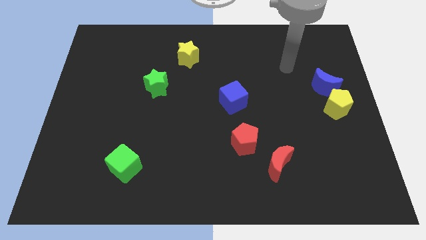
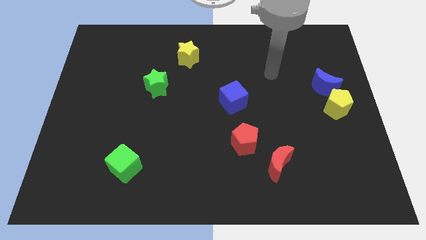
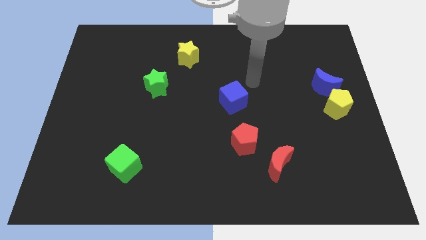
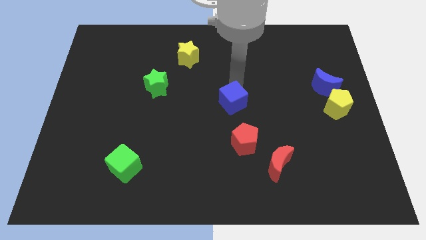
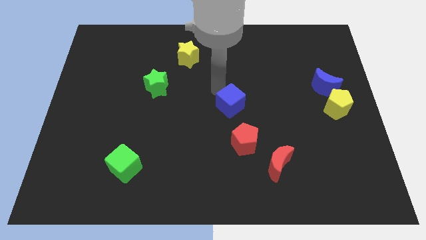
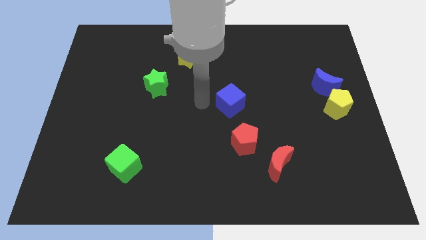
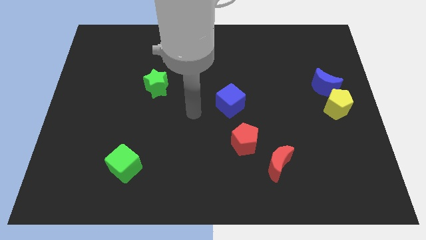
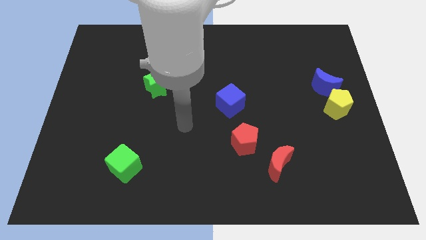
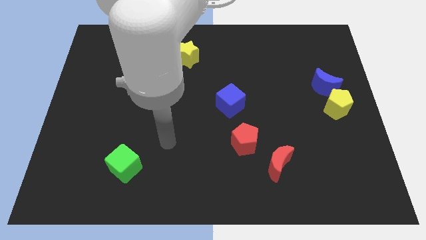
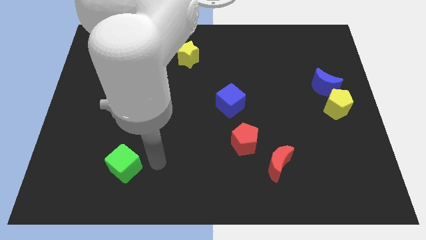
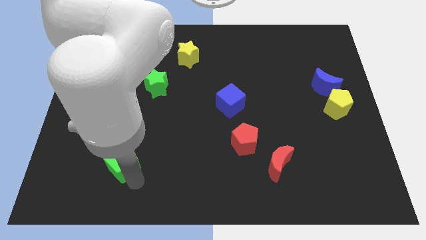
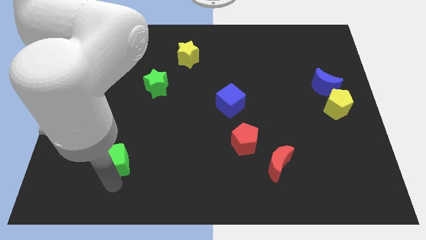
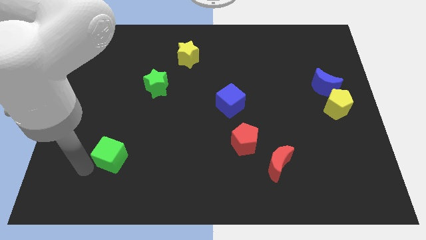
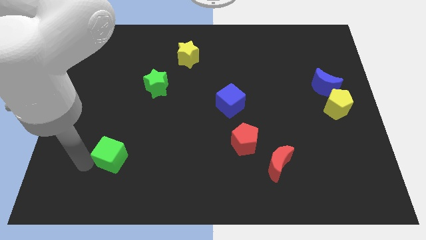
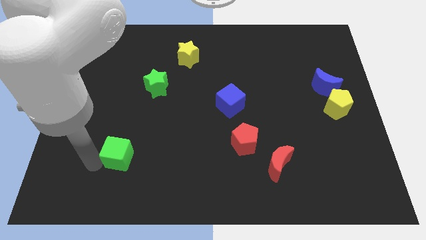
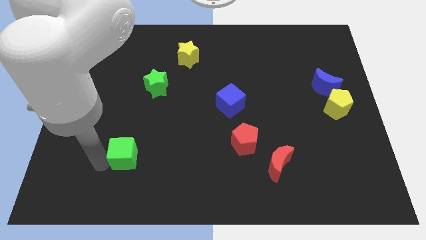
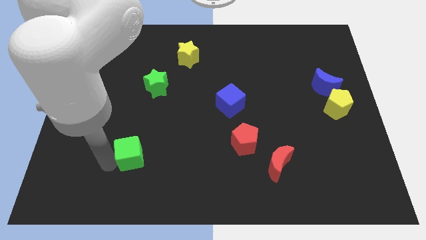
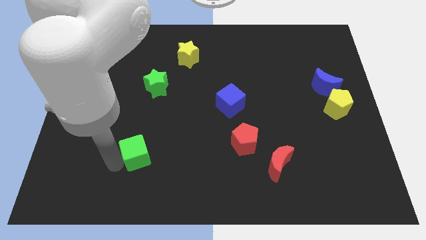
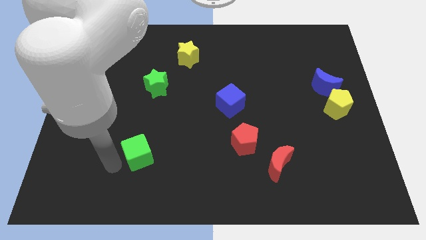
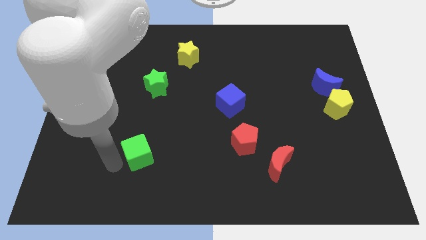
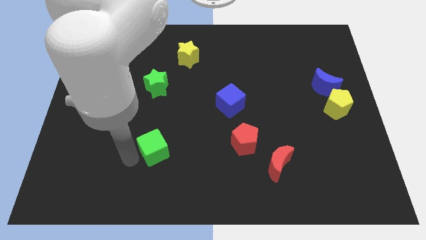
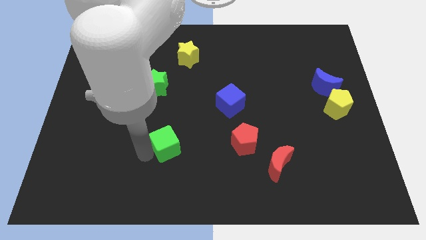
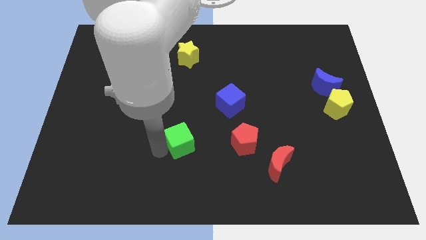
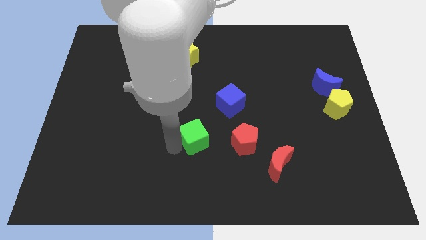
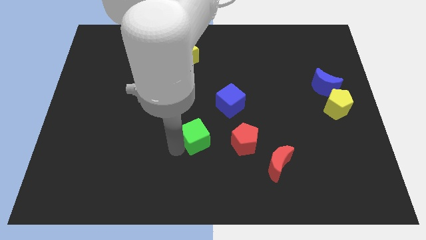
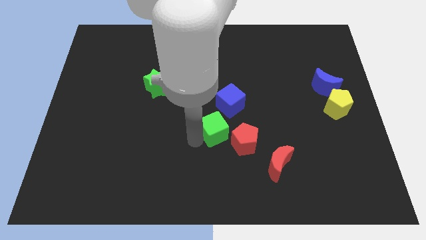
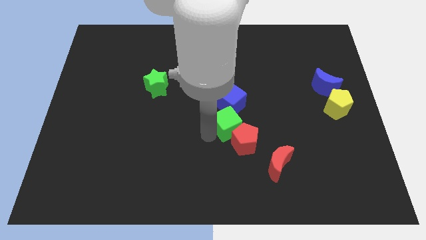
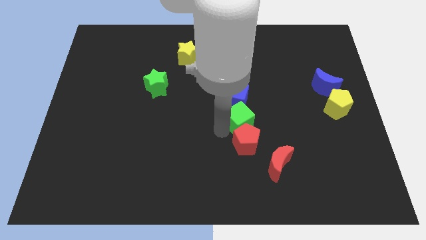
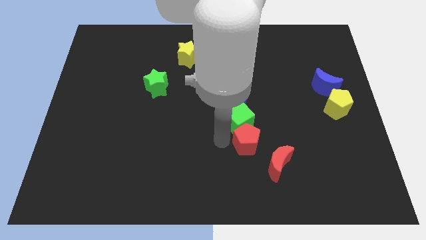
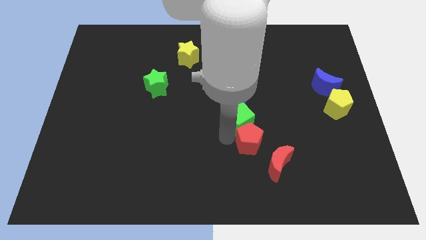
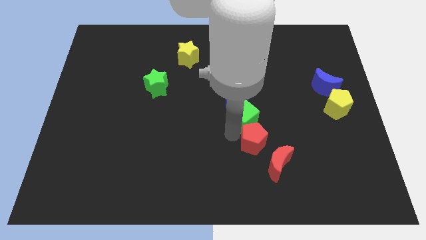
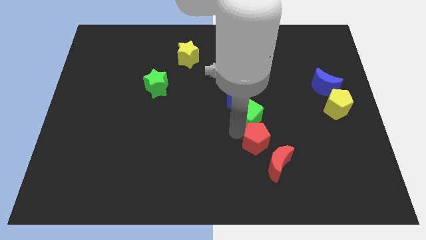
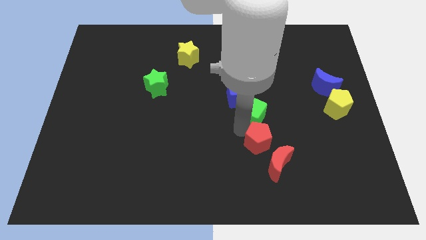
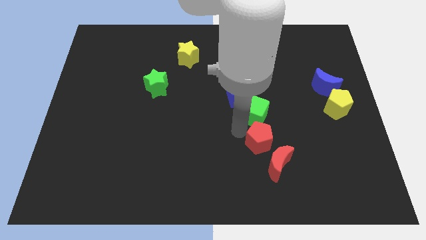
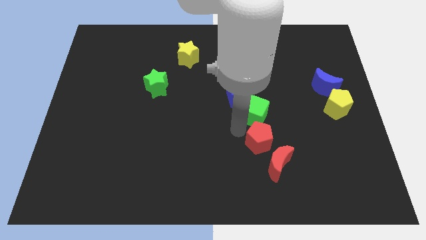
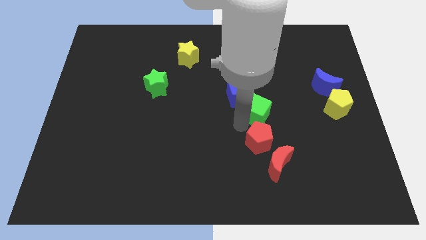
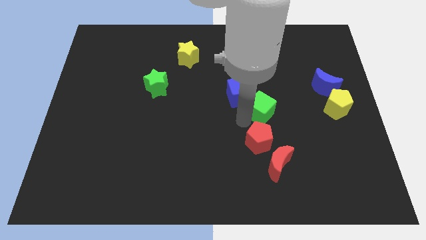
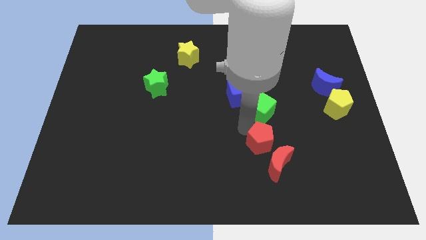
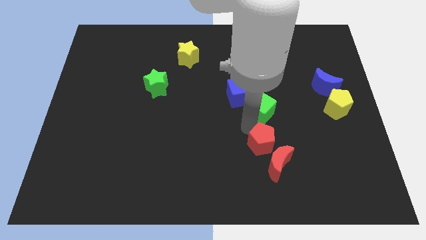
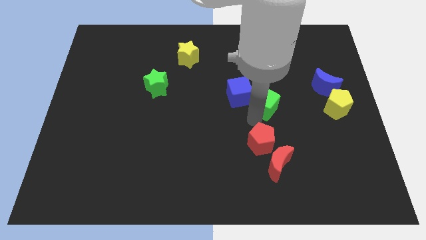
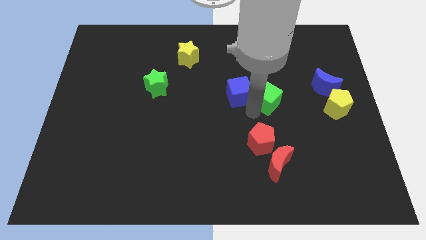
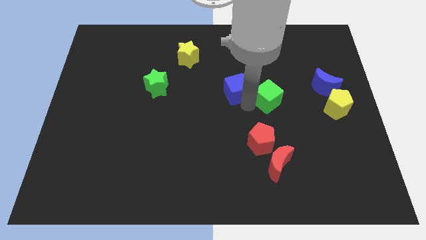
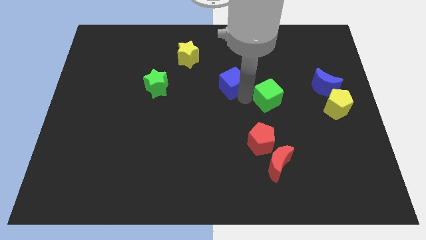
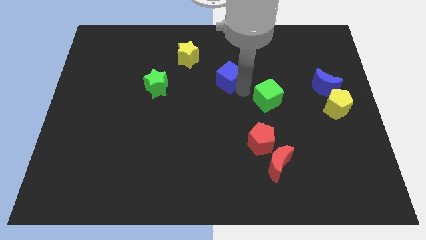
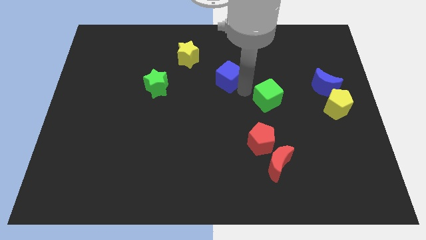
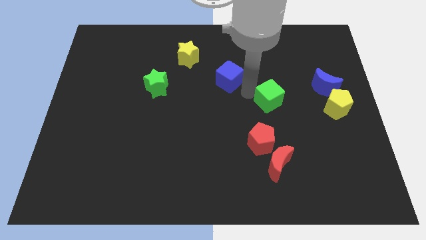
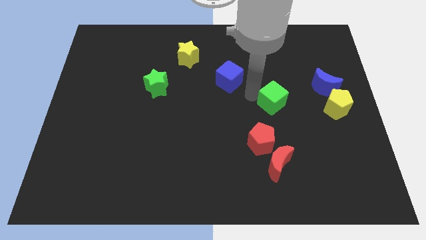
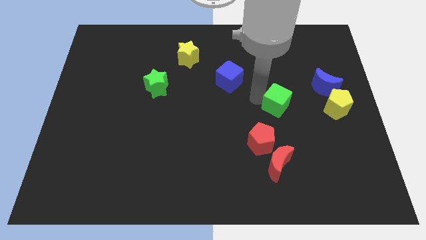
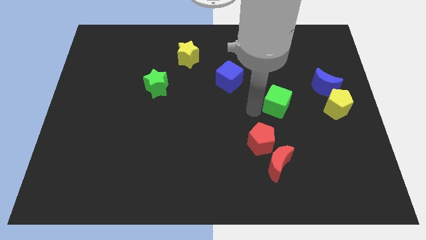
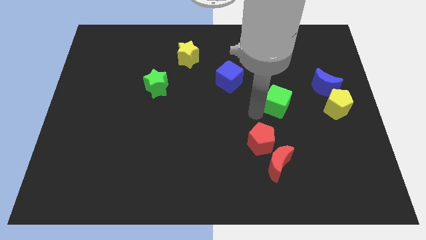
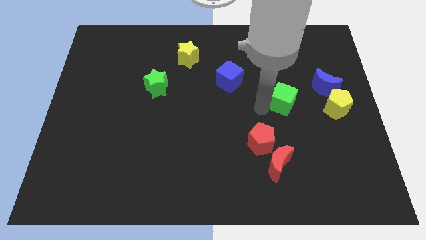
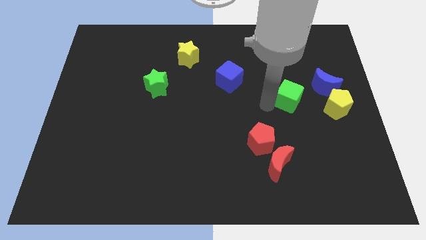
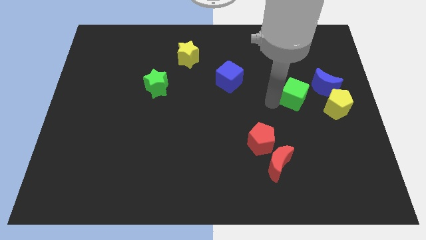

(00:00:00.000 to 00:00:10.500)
push the green cube diagonally up and to the left of the yellow pentagon

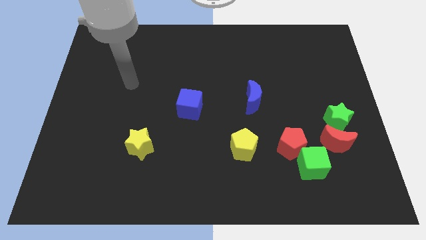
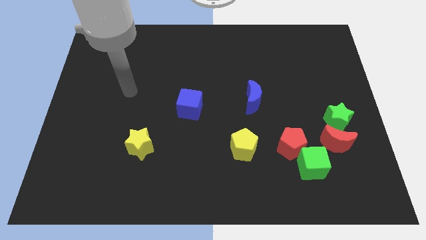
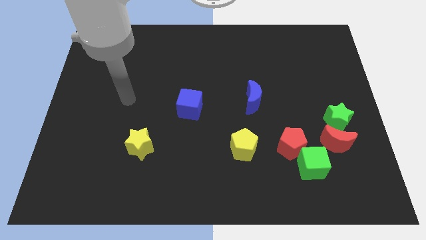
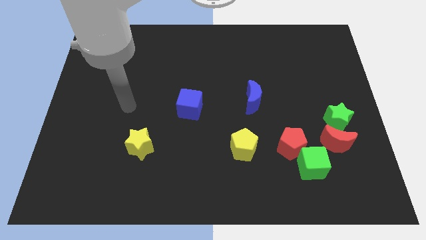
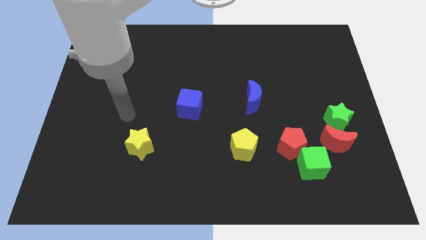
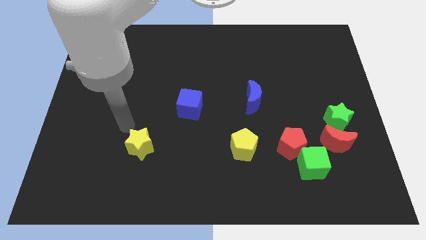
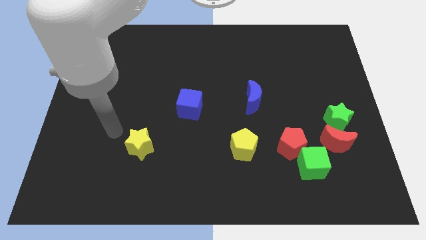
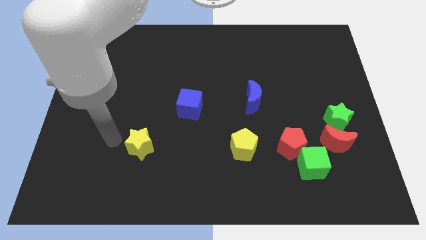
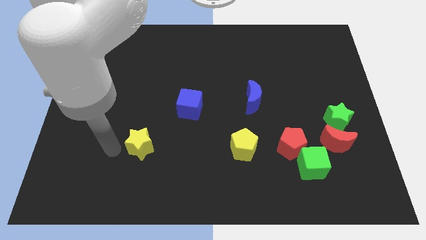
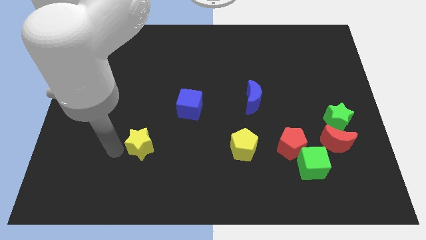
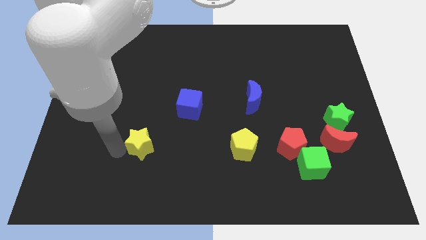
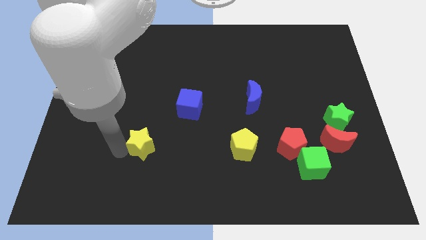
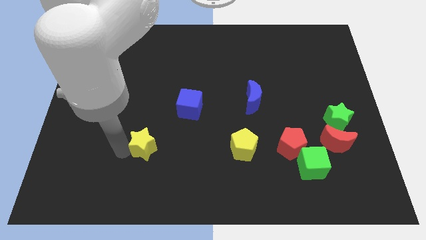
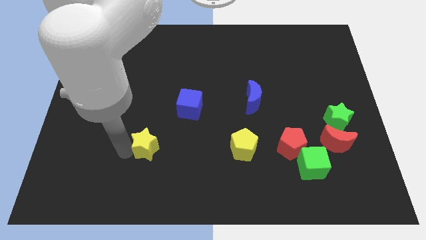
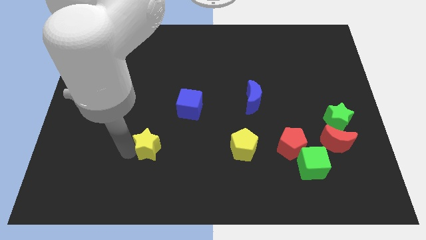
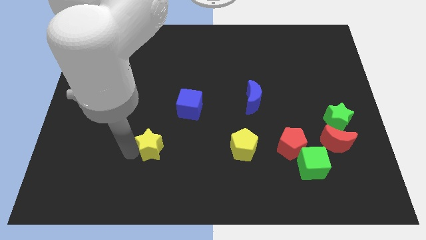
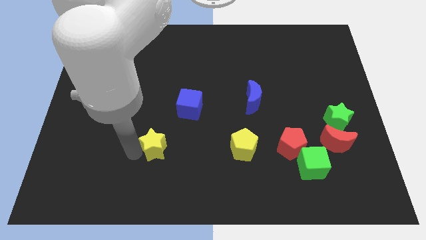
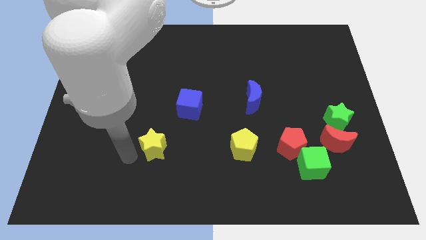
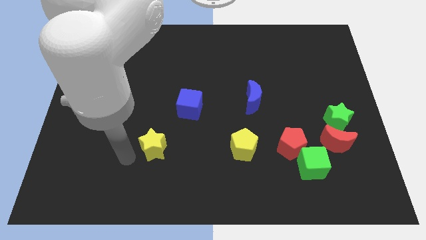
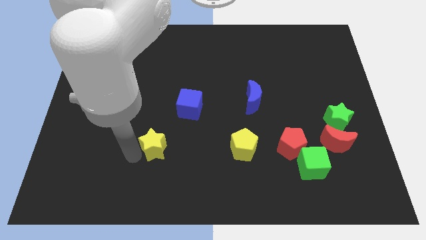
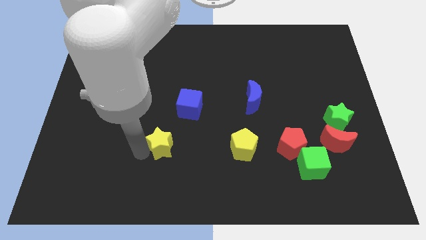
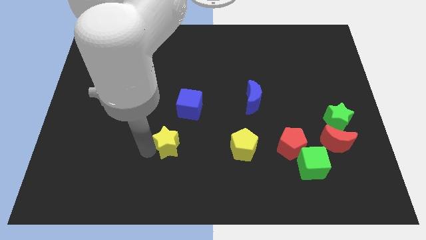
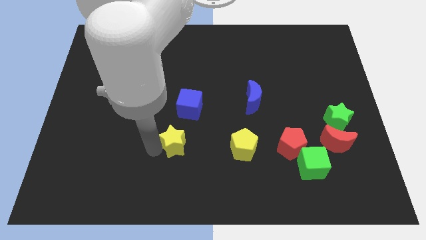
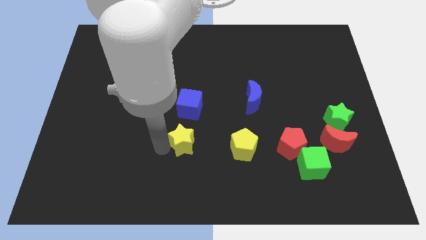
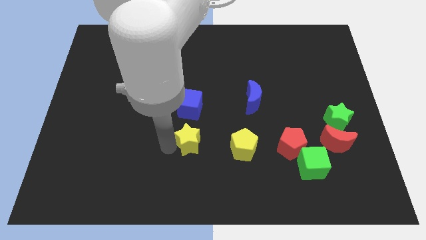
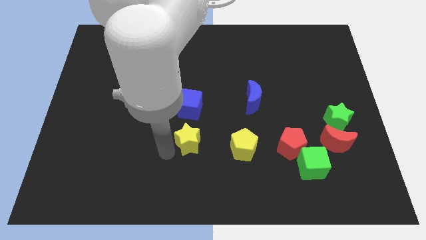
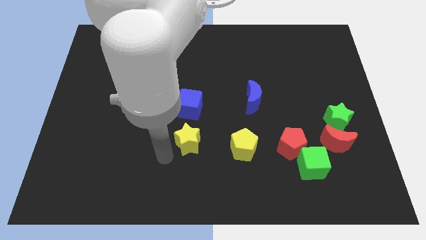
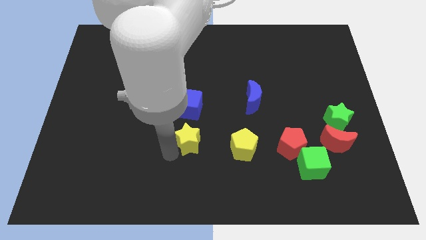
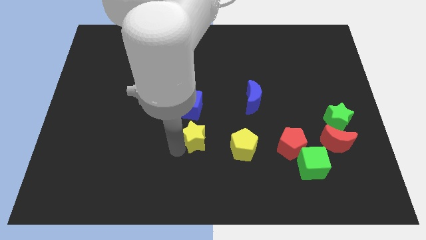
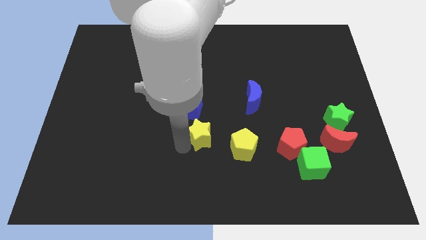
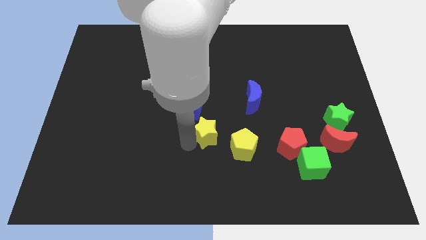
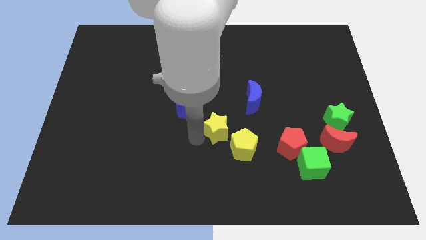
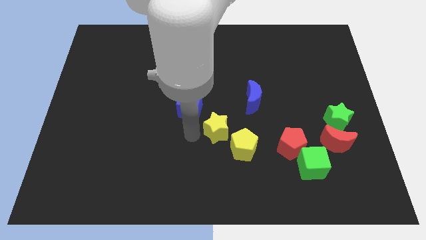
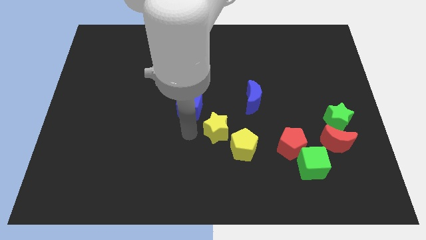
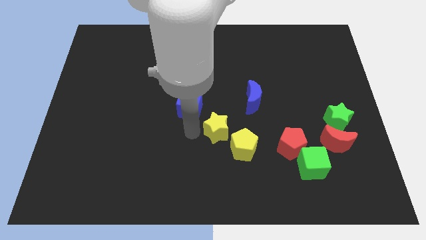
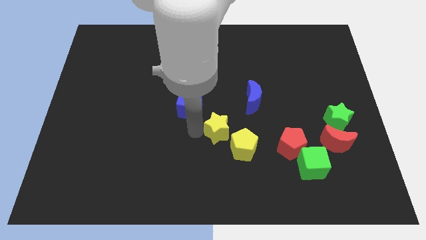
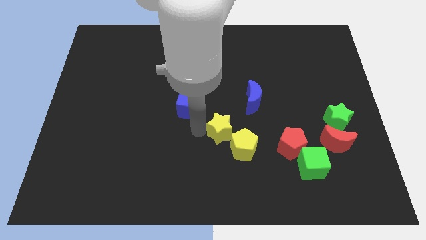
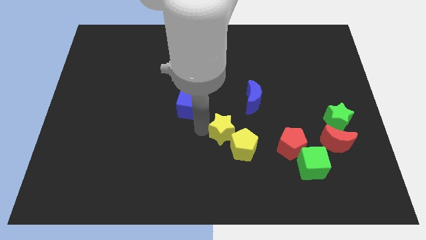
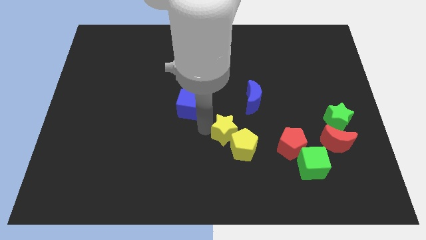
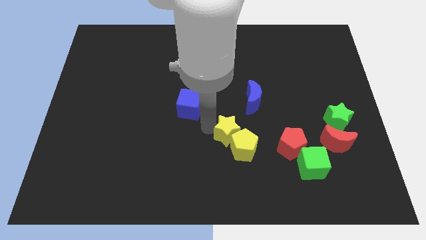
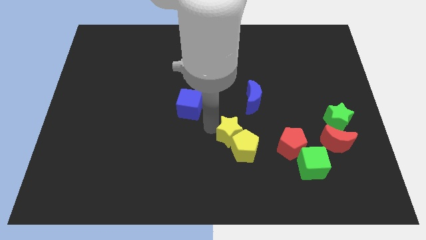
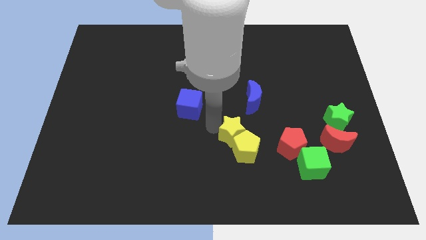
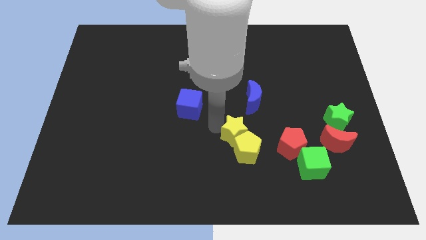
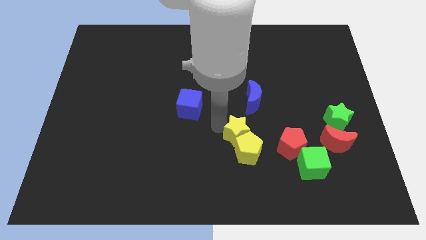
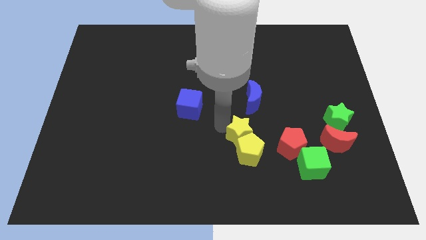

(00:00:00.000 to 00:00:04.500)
slide the yellow star to the top right of the yellow pentagon
